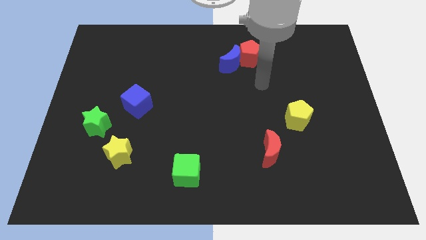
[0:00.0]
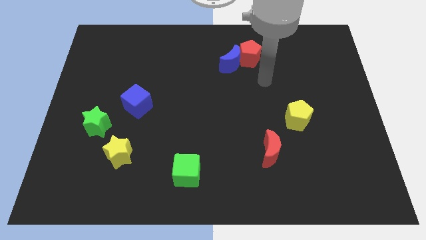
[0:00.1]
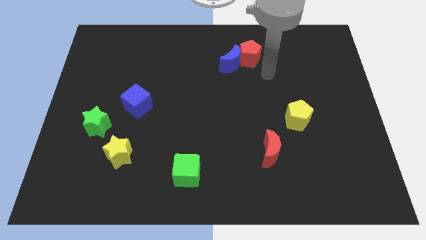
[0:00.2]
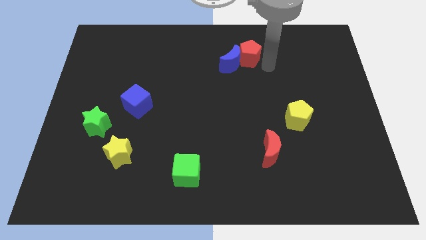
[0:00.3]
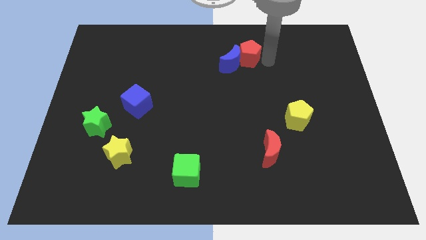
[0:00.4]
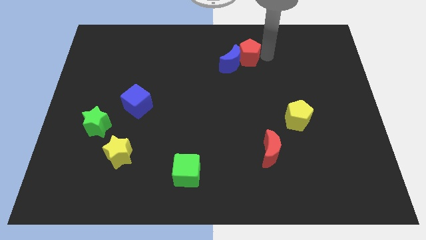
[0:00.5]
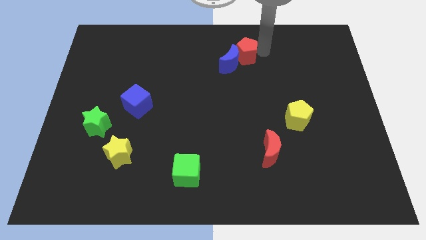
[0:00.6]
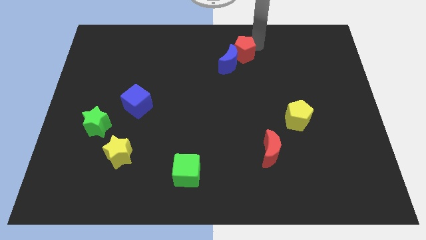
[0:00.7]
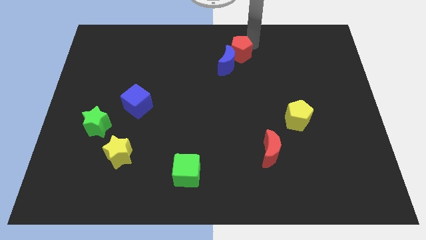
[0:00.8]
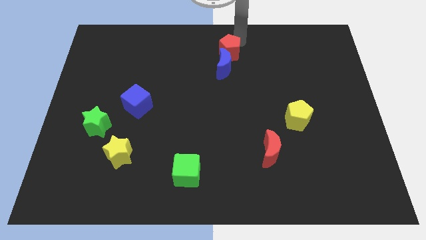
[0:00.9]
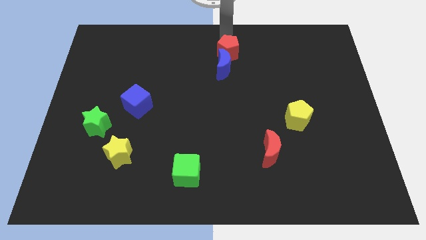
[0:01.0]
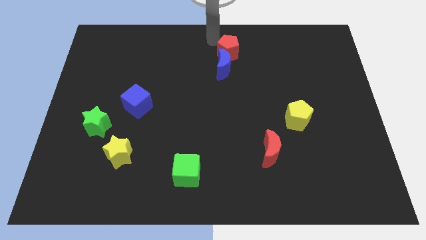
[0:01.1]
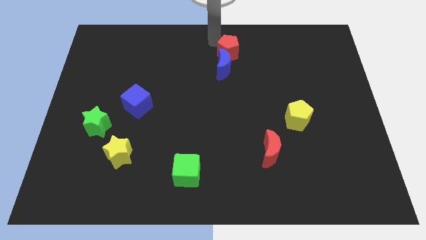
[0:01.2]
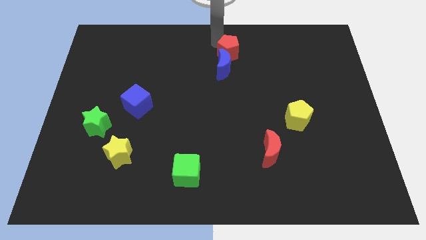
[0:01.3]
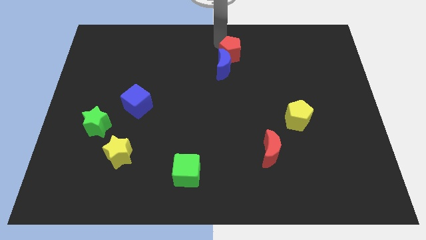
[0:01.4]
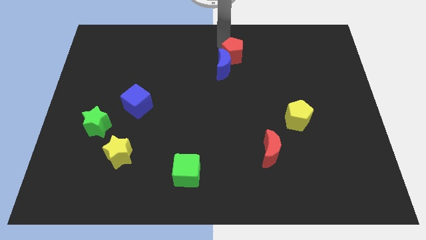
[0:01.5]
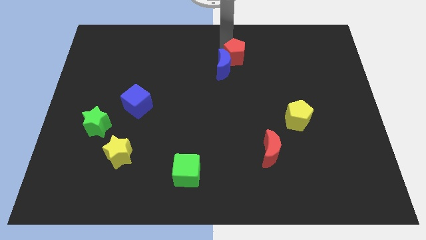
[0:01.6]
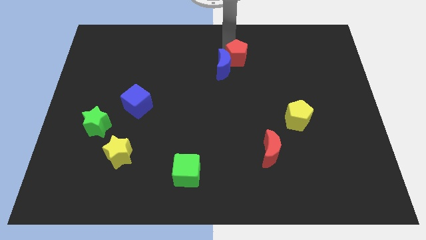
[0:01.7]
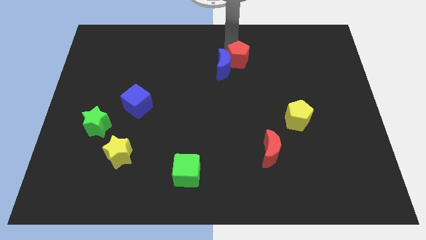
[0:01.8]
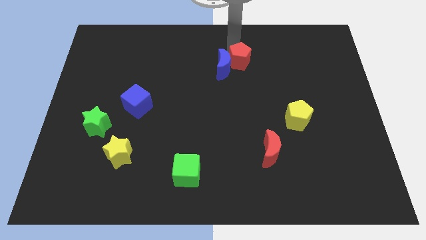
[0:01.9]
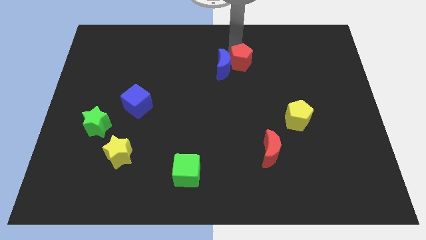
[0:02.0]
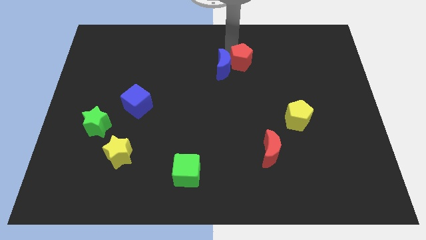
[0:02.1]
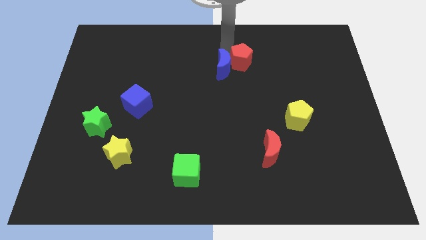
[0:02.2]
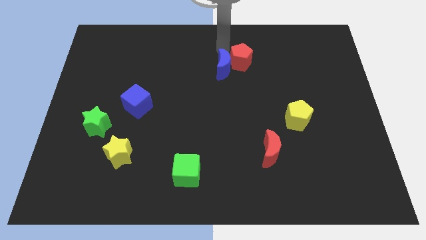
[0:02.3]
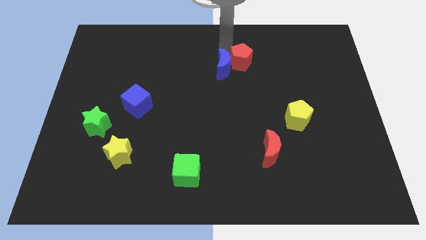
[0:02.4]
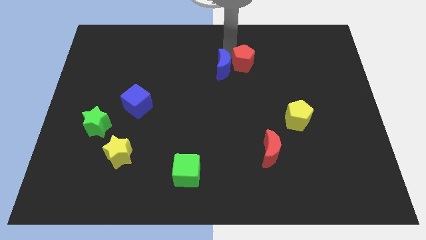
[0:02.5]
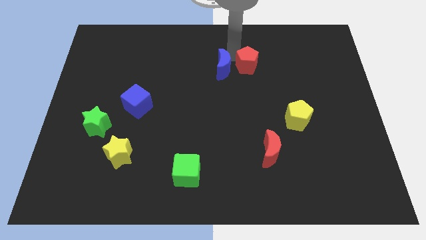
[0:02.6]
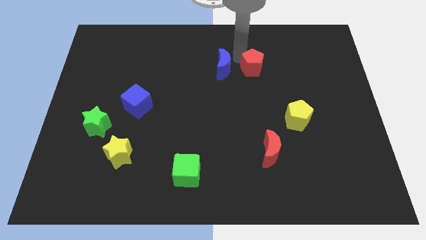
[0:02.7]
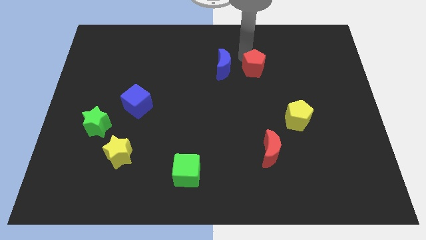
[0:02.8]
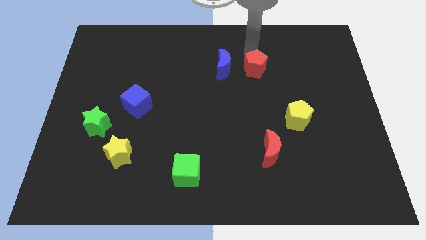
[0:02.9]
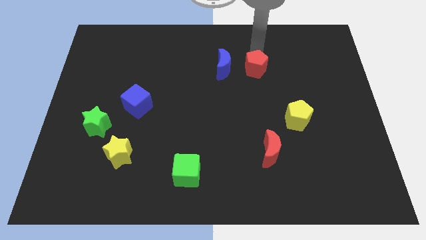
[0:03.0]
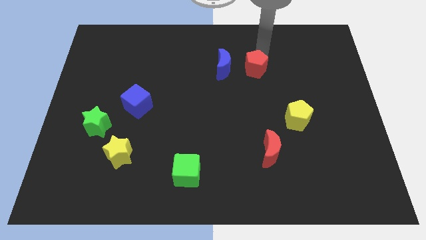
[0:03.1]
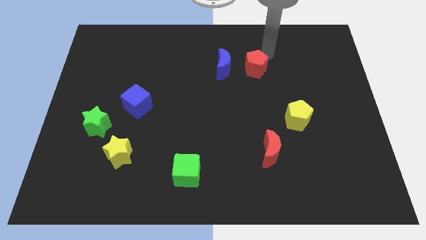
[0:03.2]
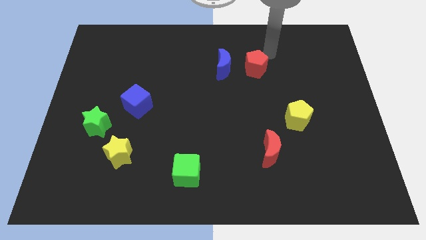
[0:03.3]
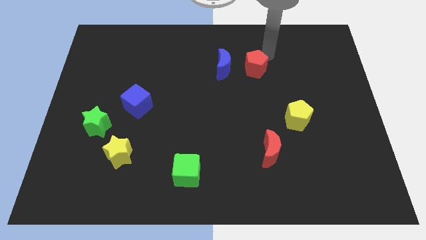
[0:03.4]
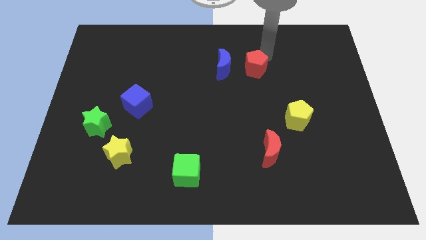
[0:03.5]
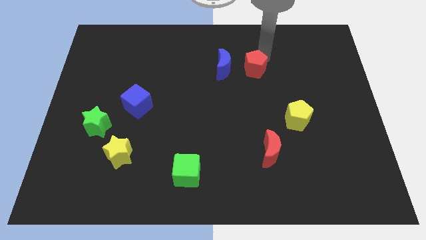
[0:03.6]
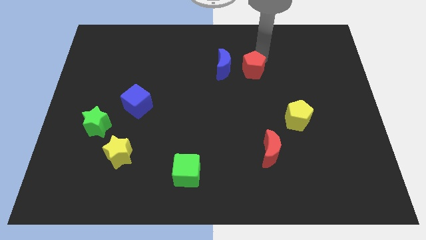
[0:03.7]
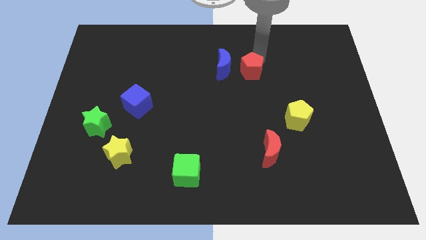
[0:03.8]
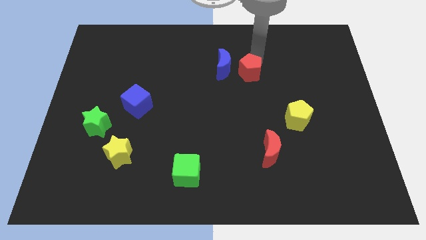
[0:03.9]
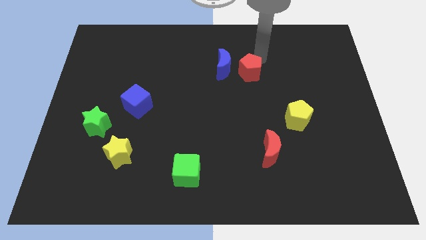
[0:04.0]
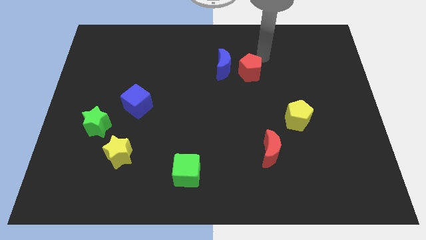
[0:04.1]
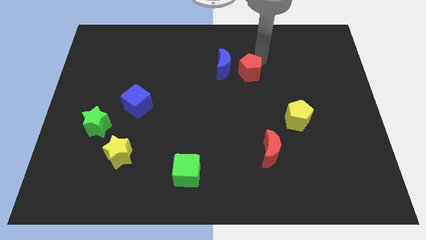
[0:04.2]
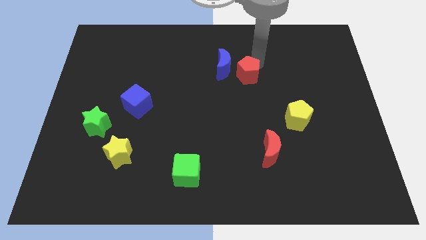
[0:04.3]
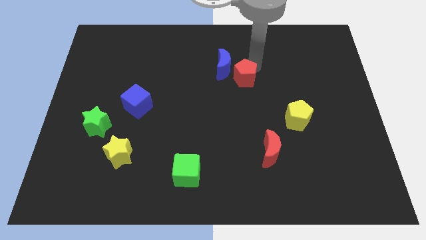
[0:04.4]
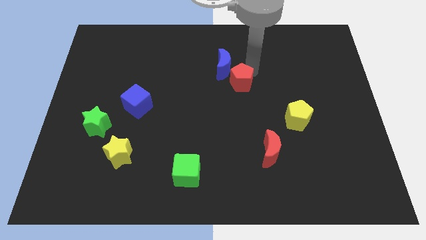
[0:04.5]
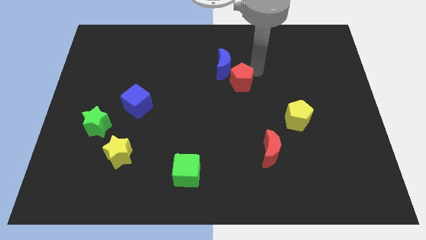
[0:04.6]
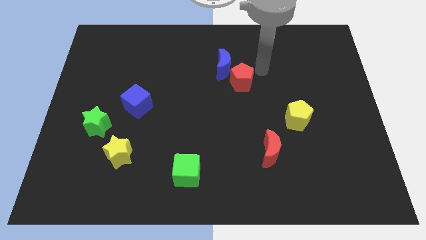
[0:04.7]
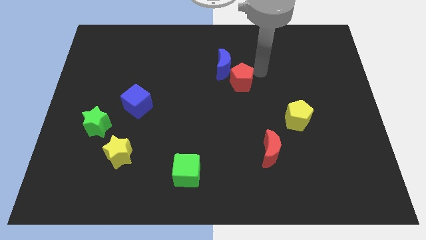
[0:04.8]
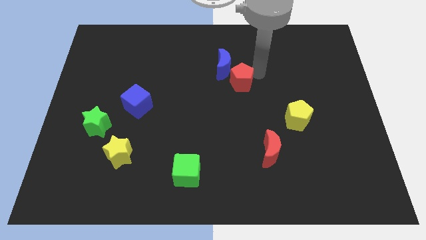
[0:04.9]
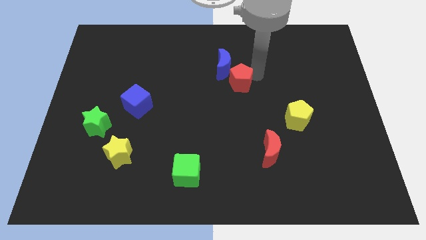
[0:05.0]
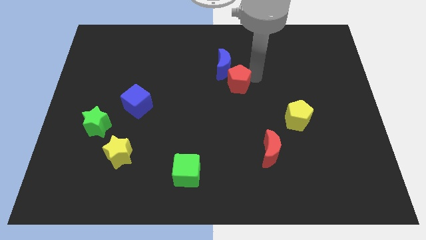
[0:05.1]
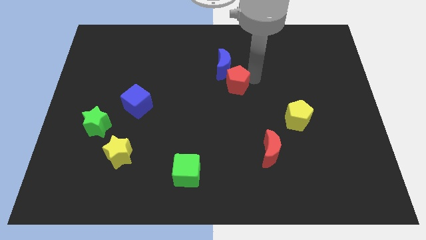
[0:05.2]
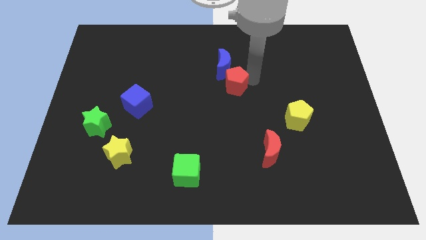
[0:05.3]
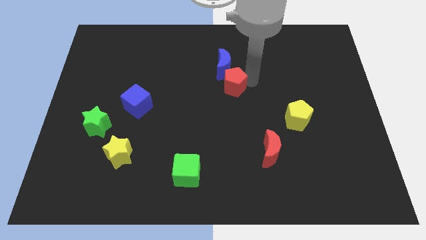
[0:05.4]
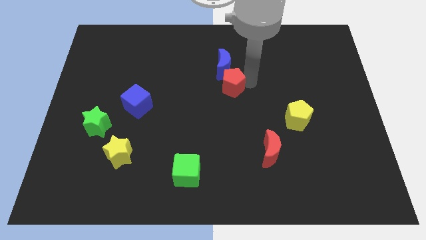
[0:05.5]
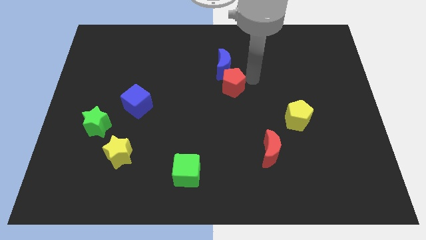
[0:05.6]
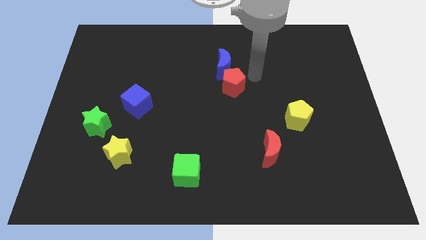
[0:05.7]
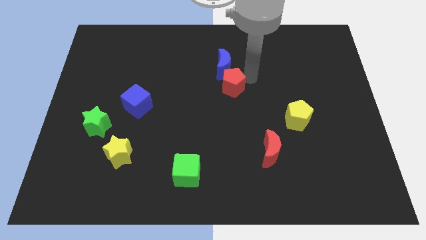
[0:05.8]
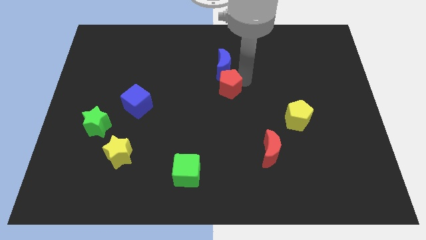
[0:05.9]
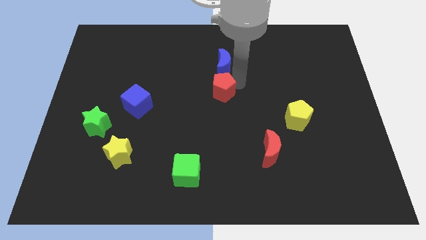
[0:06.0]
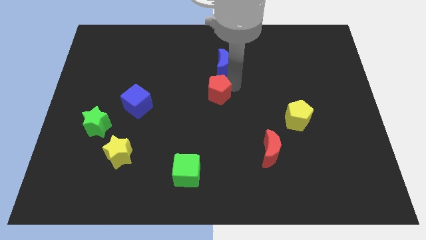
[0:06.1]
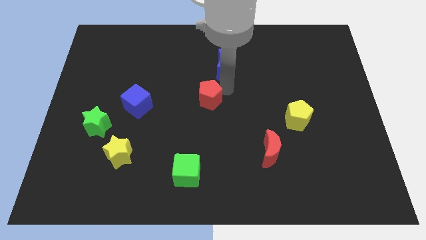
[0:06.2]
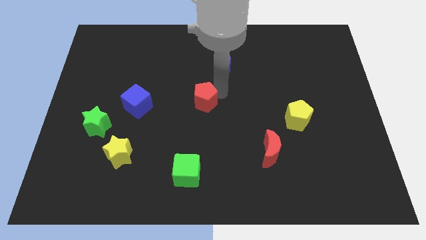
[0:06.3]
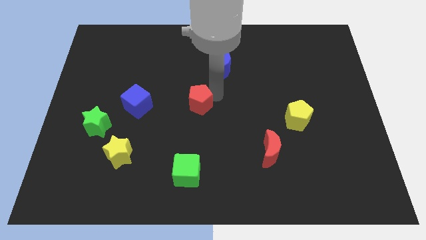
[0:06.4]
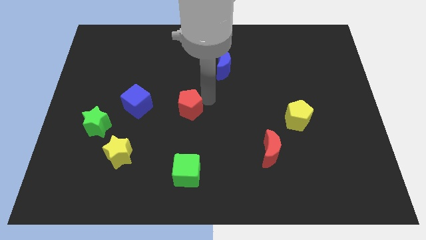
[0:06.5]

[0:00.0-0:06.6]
push the red pentagon downwards and then to the left

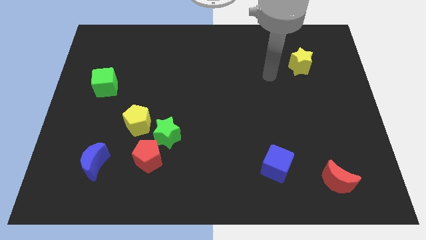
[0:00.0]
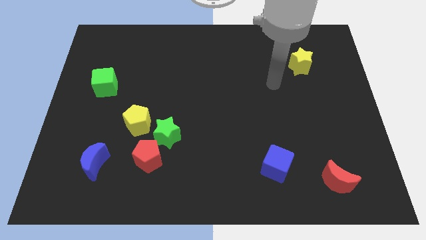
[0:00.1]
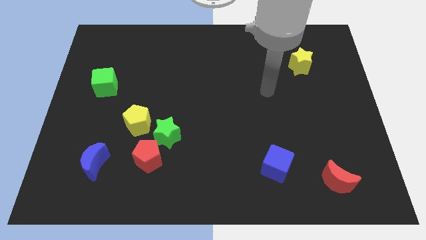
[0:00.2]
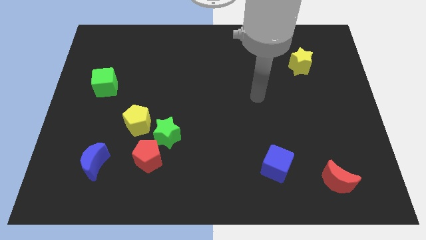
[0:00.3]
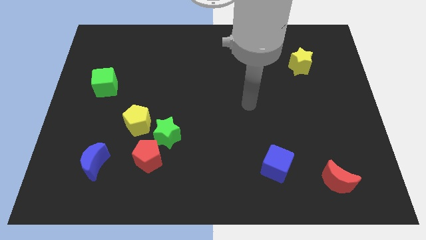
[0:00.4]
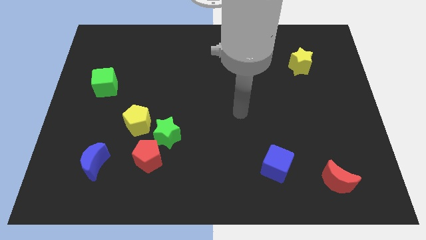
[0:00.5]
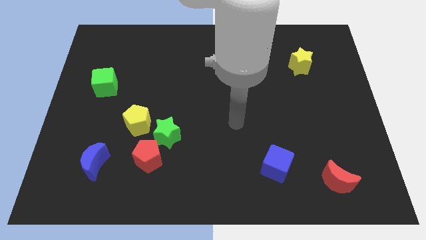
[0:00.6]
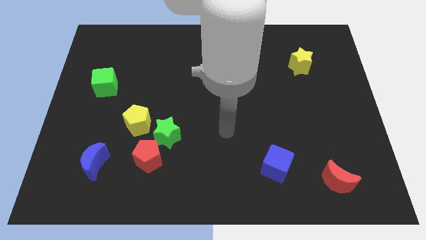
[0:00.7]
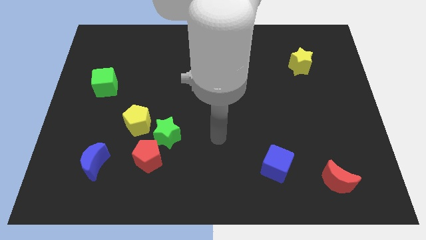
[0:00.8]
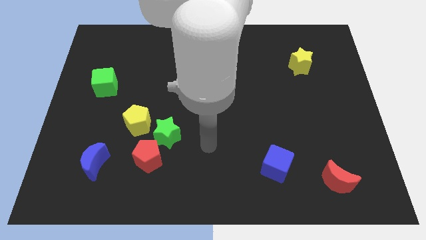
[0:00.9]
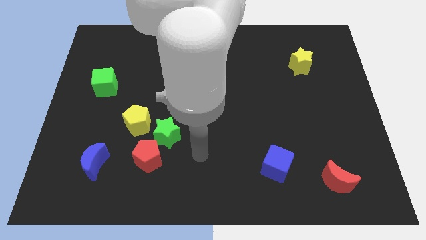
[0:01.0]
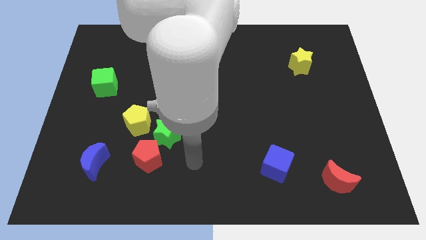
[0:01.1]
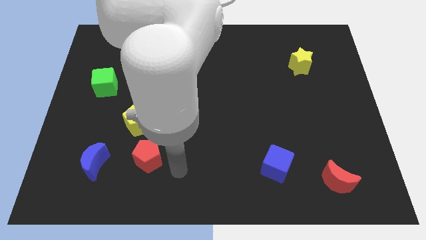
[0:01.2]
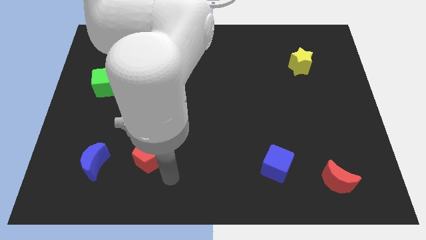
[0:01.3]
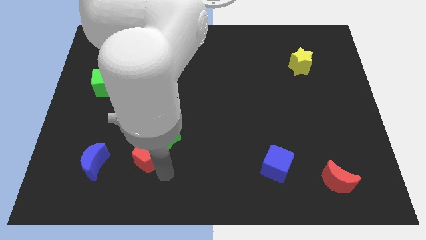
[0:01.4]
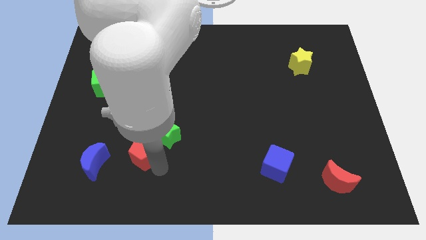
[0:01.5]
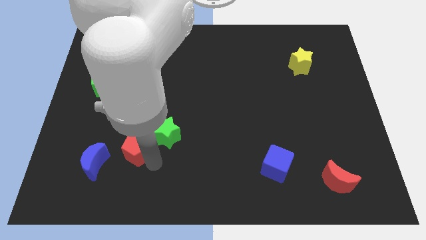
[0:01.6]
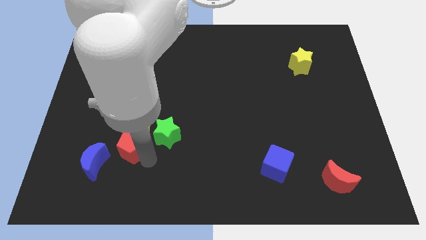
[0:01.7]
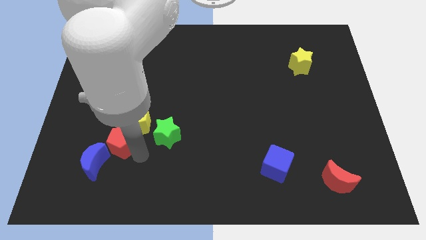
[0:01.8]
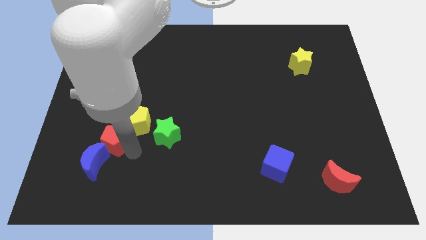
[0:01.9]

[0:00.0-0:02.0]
slightly move the red pentagon diagonally upwards and left
